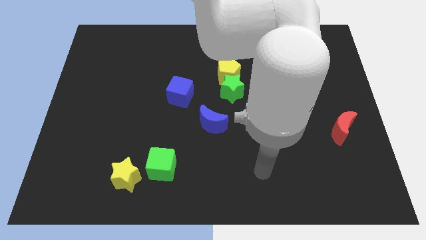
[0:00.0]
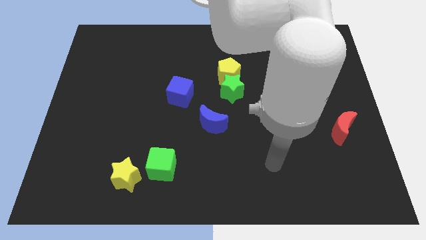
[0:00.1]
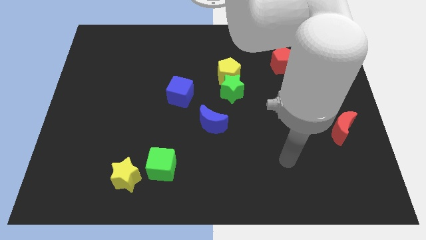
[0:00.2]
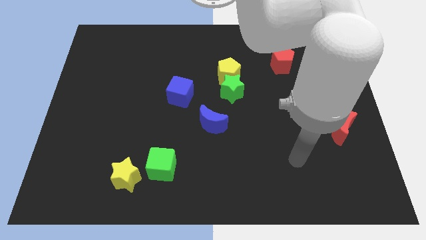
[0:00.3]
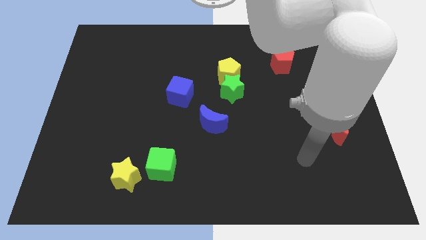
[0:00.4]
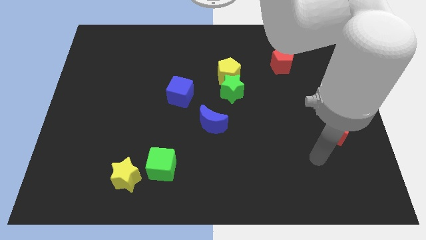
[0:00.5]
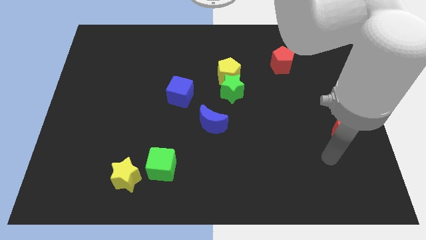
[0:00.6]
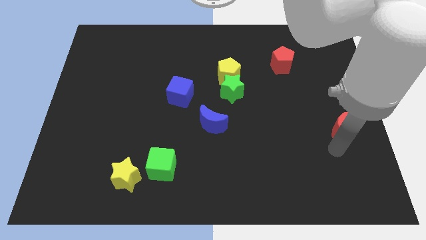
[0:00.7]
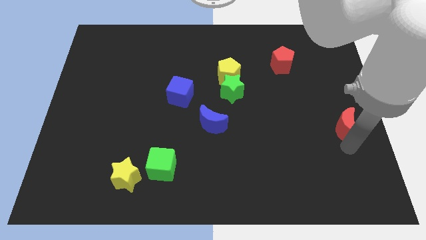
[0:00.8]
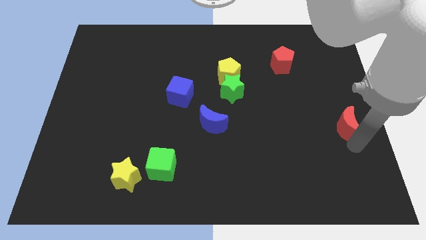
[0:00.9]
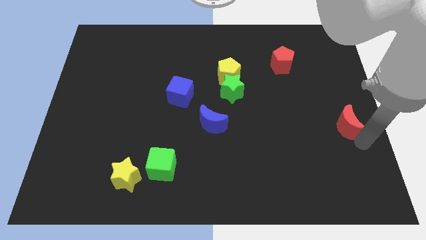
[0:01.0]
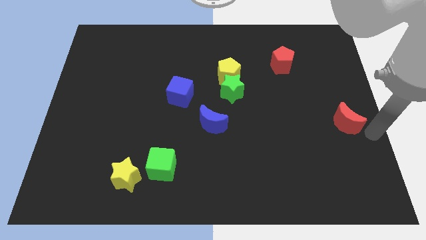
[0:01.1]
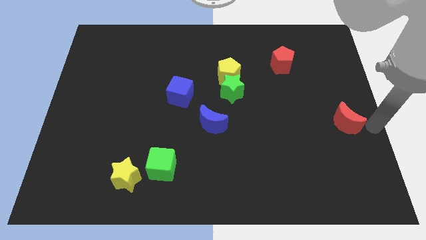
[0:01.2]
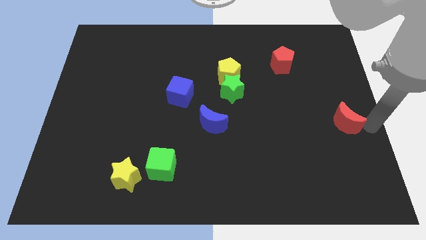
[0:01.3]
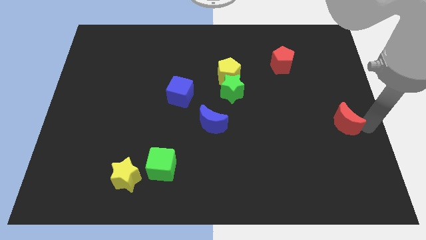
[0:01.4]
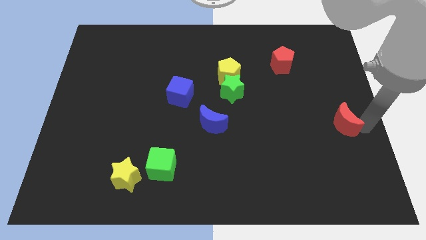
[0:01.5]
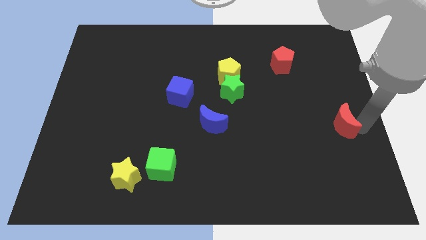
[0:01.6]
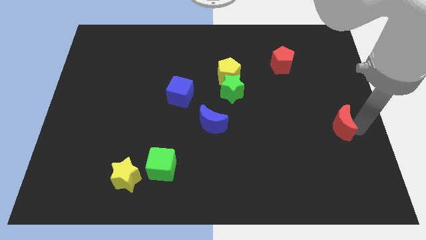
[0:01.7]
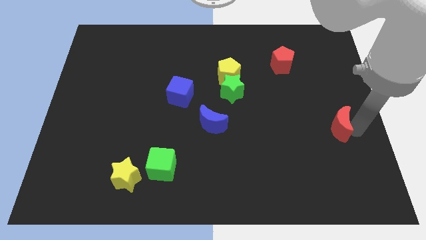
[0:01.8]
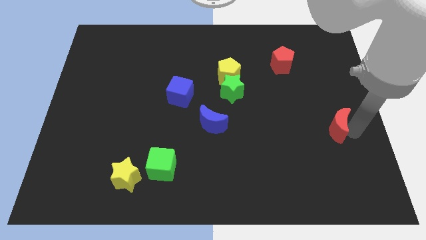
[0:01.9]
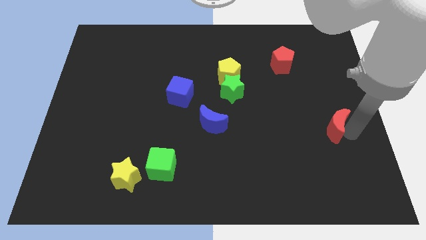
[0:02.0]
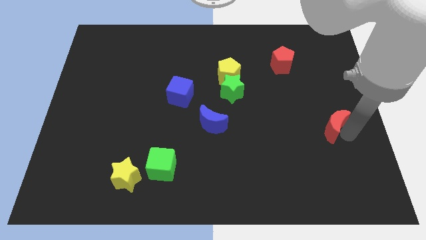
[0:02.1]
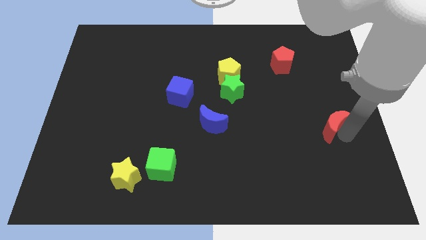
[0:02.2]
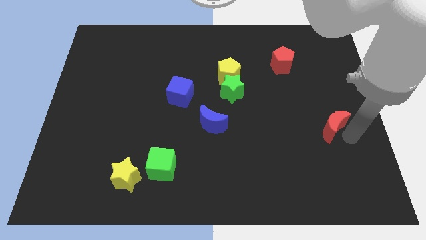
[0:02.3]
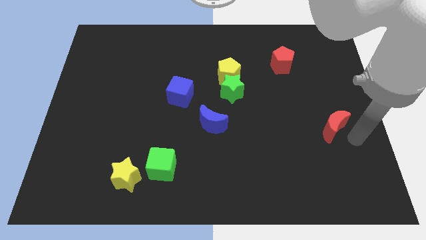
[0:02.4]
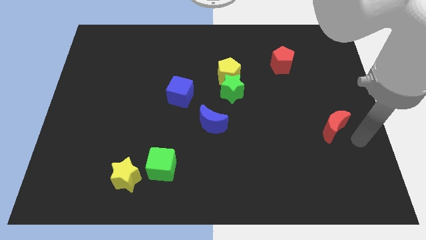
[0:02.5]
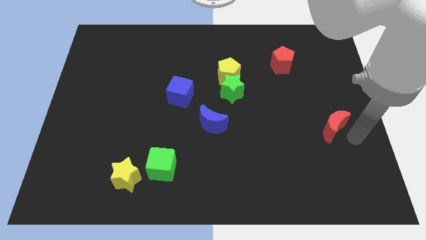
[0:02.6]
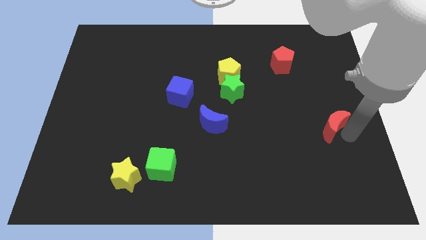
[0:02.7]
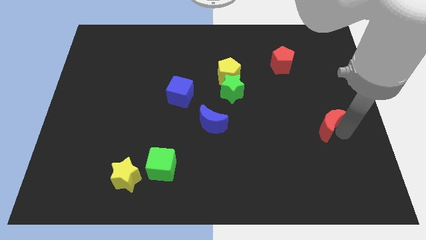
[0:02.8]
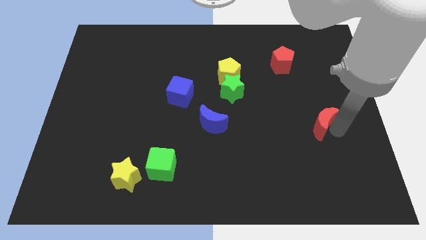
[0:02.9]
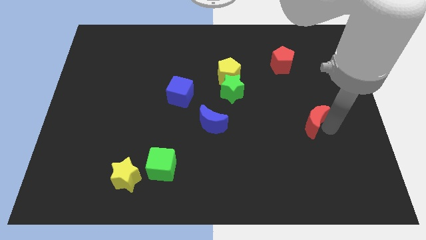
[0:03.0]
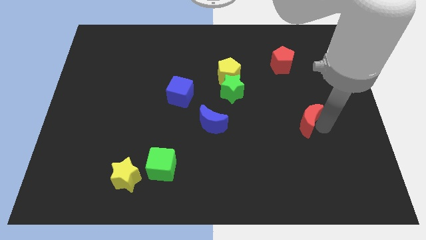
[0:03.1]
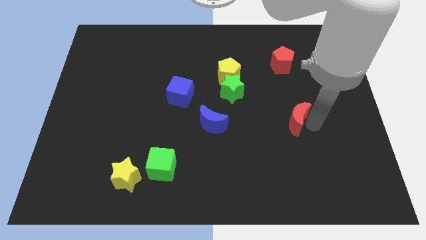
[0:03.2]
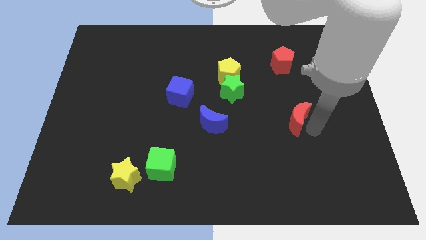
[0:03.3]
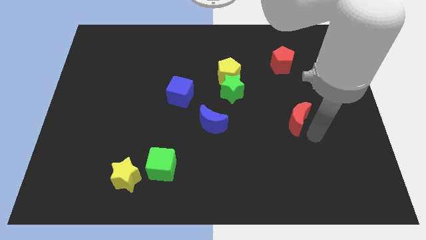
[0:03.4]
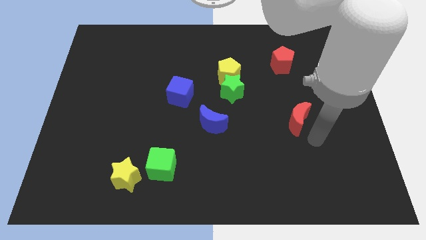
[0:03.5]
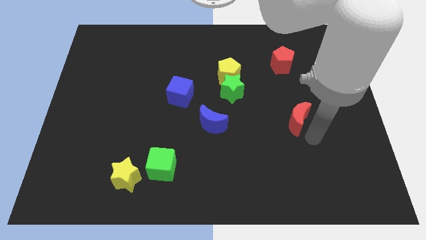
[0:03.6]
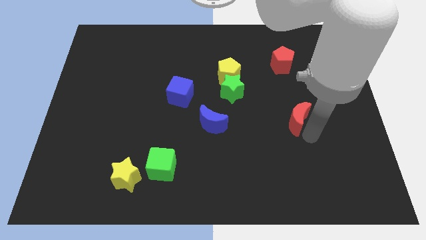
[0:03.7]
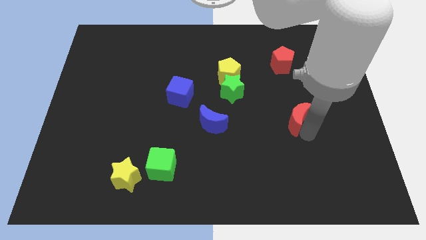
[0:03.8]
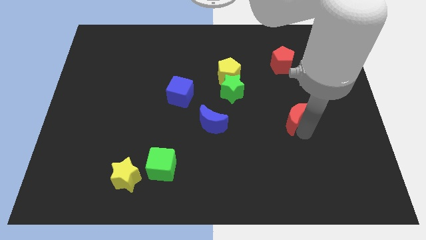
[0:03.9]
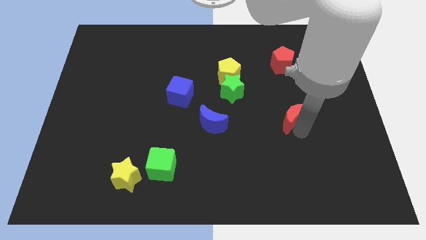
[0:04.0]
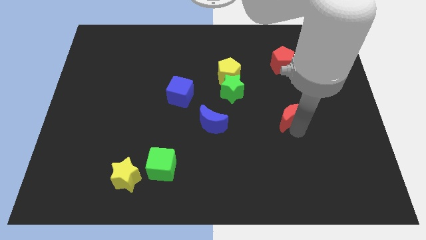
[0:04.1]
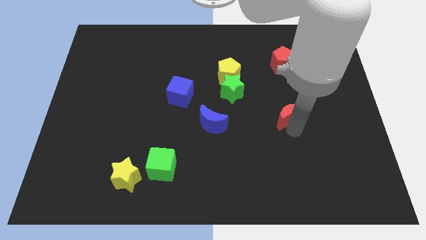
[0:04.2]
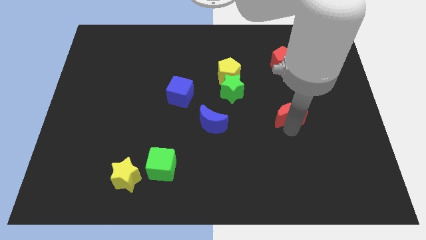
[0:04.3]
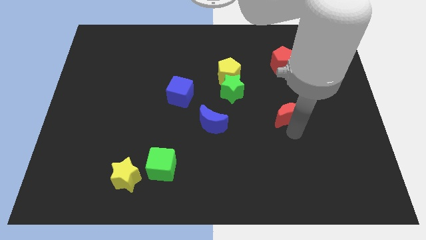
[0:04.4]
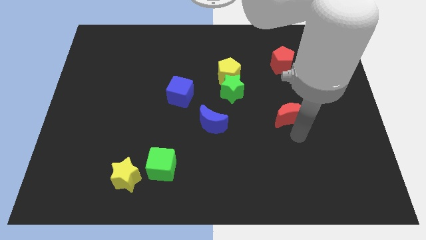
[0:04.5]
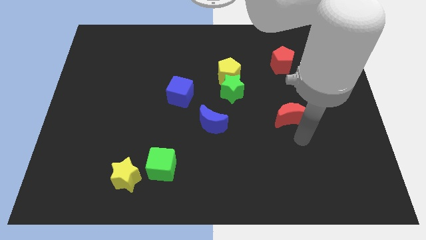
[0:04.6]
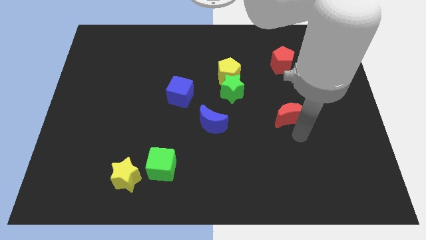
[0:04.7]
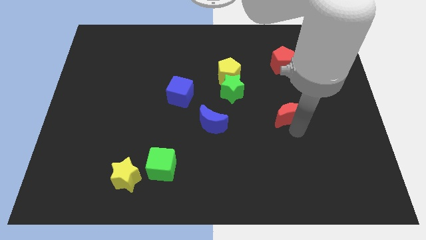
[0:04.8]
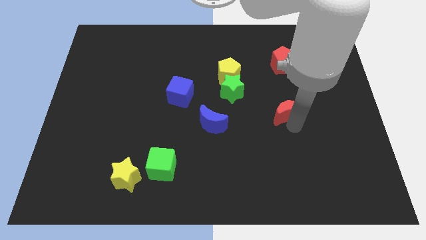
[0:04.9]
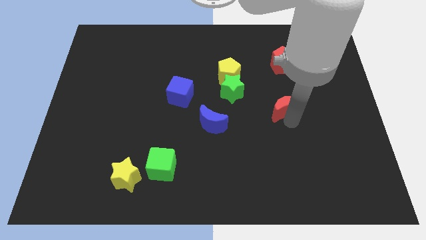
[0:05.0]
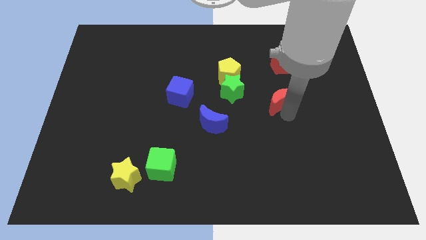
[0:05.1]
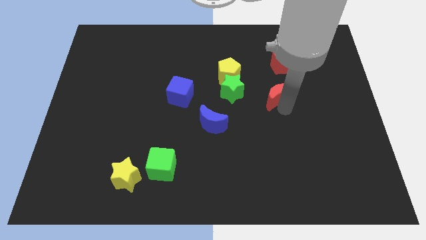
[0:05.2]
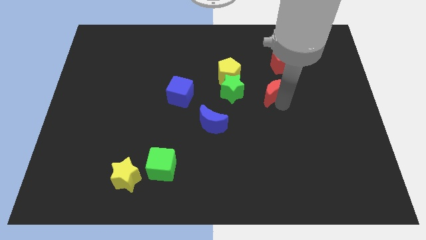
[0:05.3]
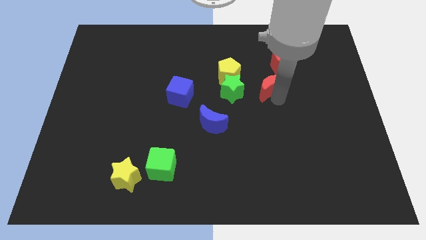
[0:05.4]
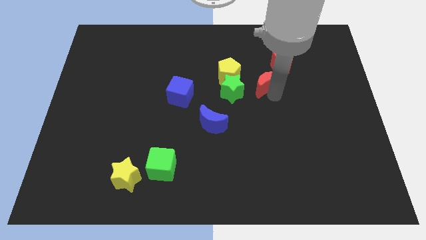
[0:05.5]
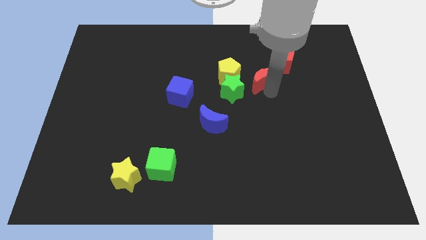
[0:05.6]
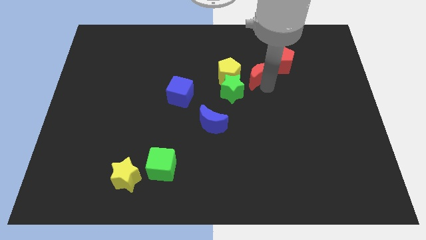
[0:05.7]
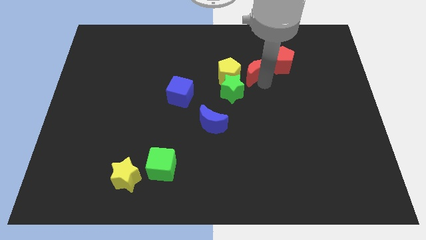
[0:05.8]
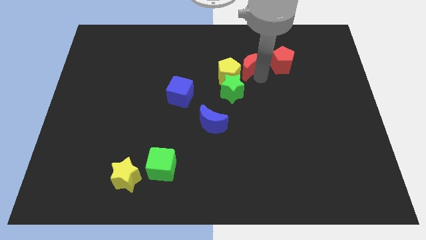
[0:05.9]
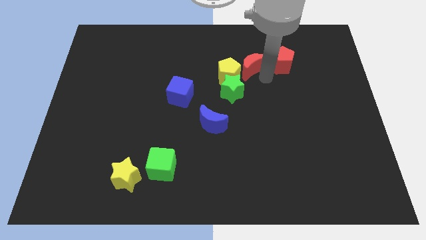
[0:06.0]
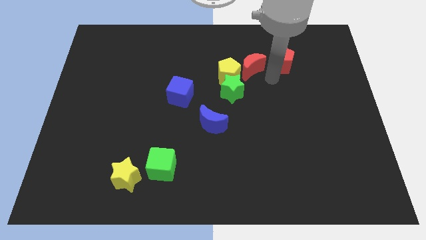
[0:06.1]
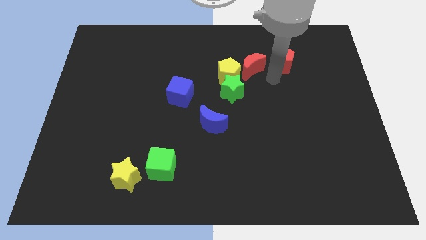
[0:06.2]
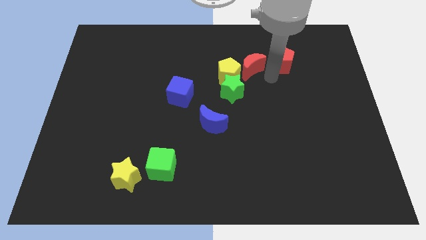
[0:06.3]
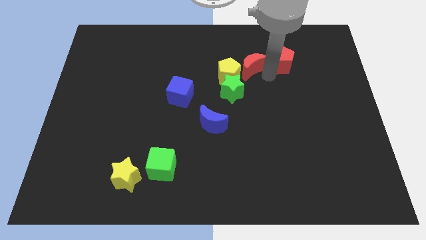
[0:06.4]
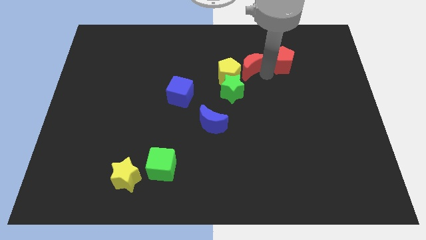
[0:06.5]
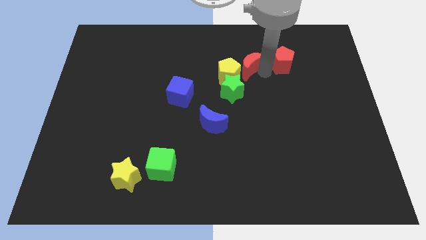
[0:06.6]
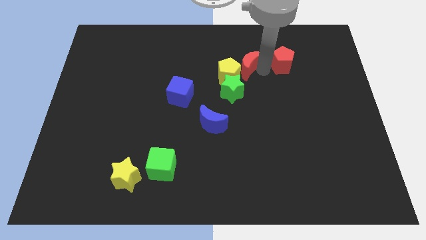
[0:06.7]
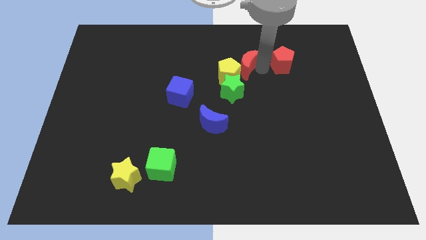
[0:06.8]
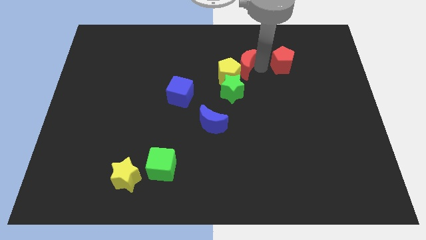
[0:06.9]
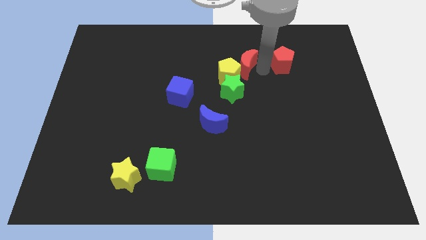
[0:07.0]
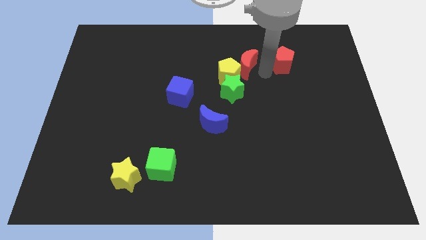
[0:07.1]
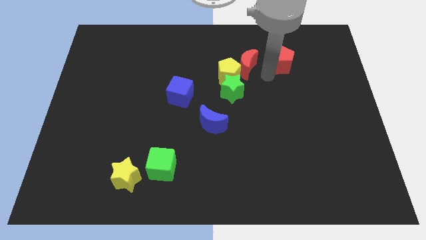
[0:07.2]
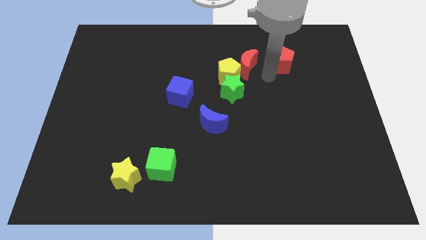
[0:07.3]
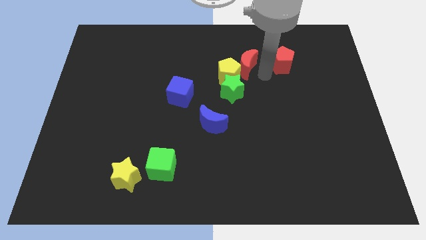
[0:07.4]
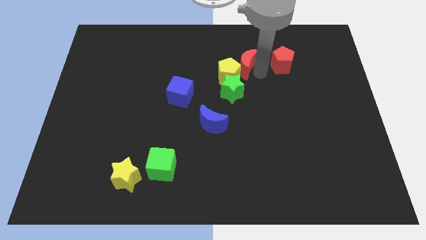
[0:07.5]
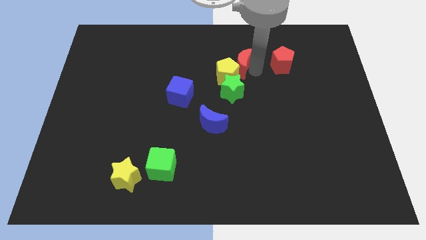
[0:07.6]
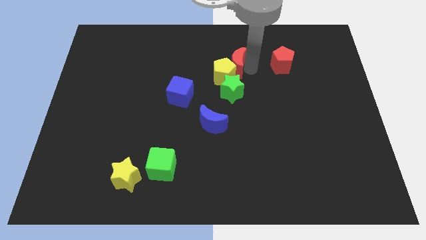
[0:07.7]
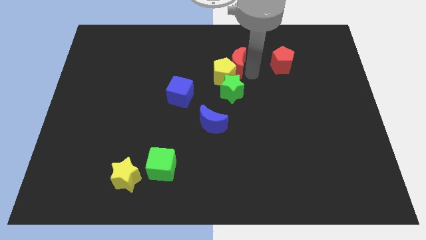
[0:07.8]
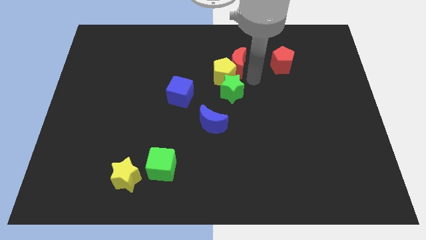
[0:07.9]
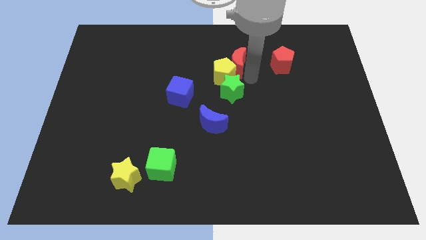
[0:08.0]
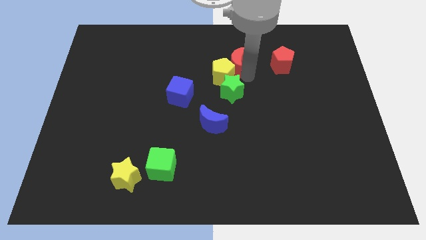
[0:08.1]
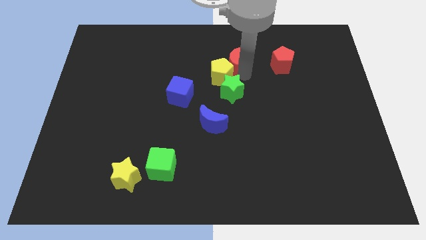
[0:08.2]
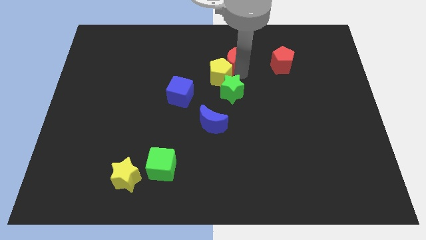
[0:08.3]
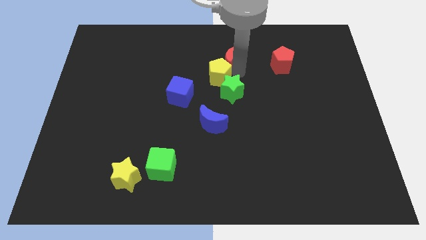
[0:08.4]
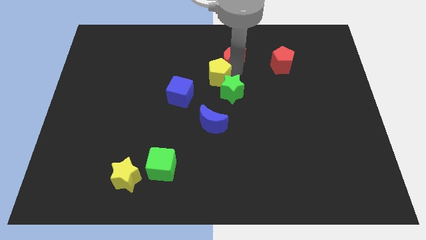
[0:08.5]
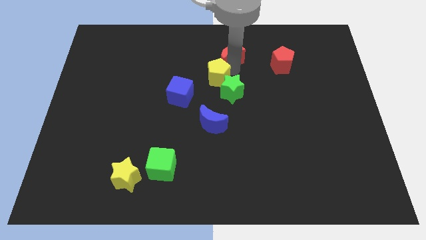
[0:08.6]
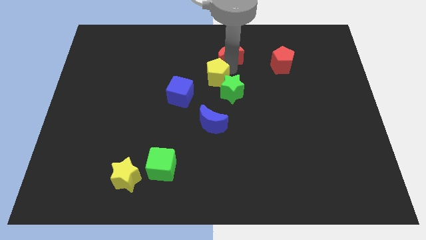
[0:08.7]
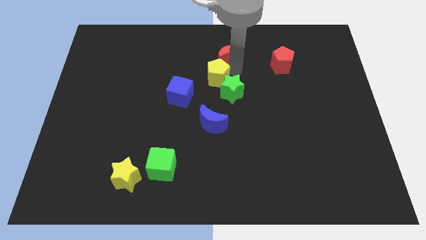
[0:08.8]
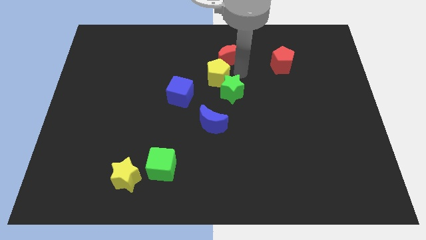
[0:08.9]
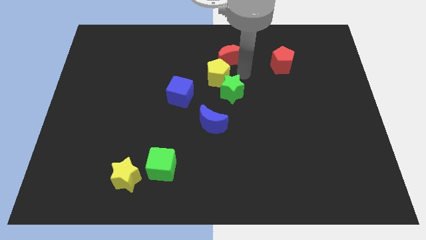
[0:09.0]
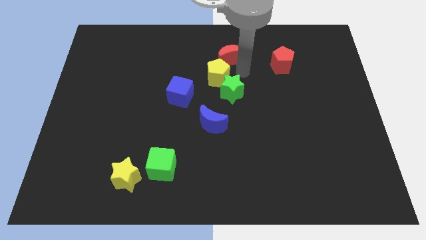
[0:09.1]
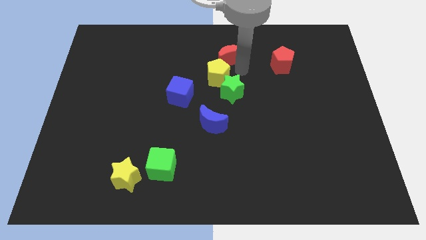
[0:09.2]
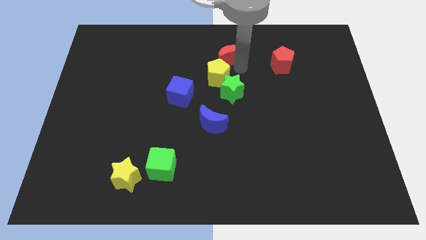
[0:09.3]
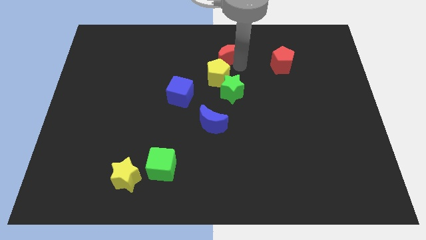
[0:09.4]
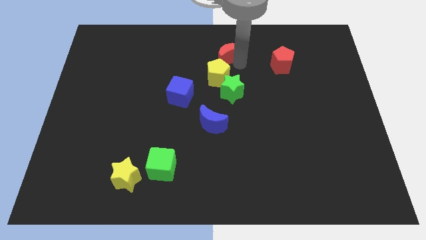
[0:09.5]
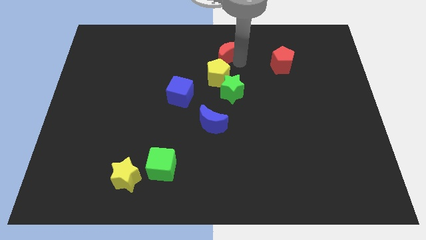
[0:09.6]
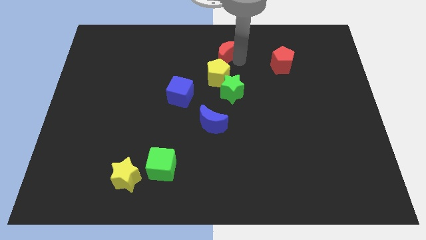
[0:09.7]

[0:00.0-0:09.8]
push the red moon to the top
